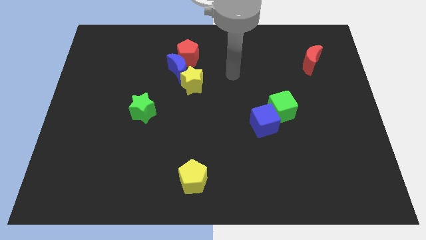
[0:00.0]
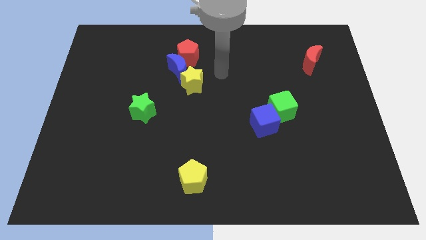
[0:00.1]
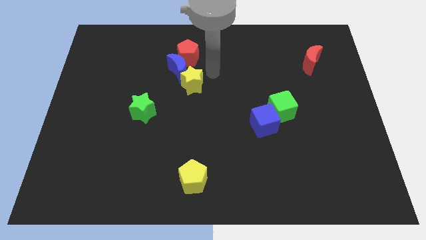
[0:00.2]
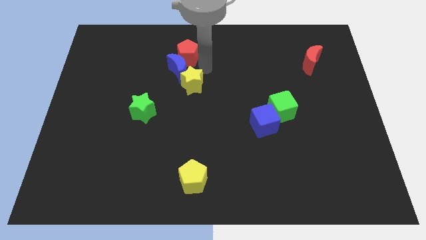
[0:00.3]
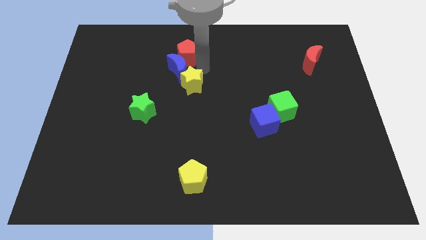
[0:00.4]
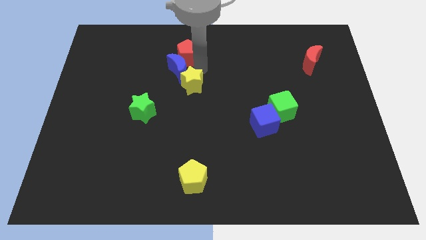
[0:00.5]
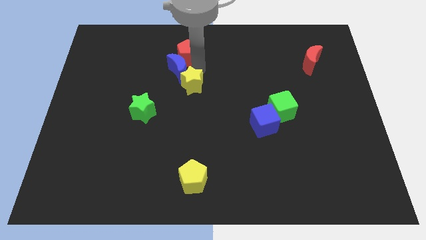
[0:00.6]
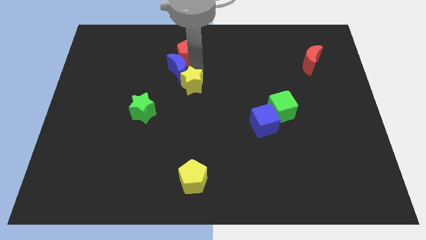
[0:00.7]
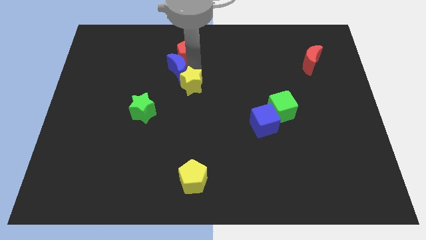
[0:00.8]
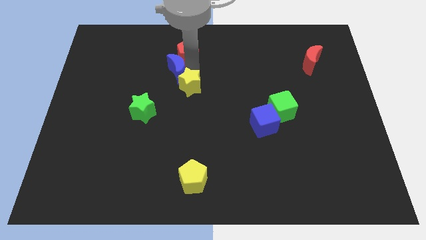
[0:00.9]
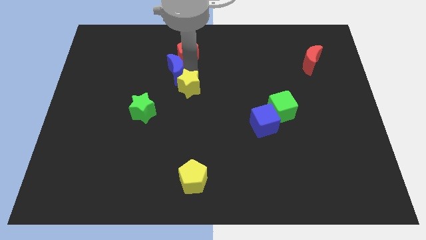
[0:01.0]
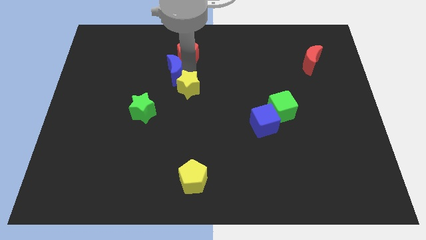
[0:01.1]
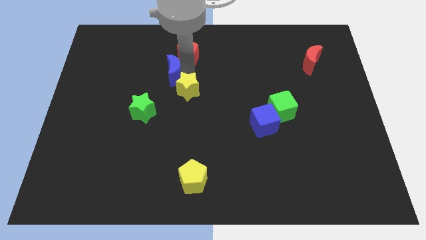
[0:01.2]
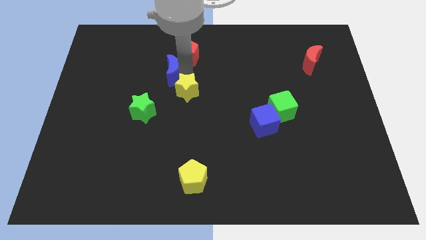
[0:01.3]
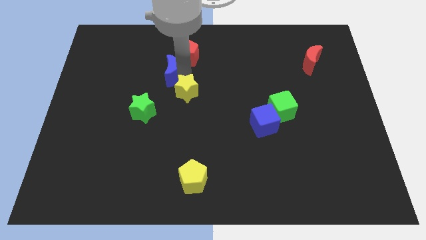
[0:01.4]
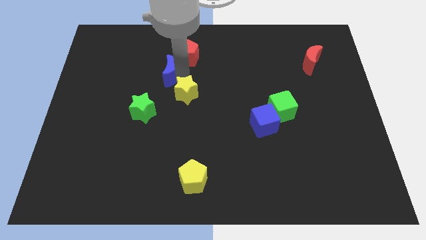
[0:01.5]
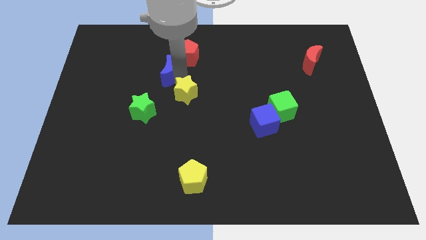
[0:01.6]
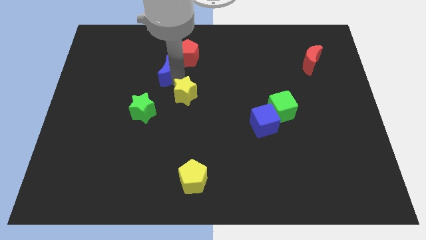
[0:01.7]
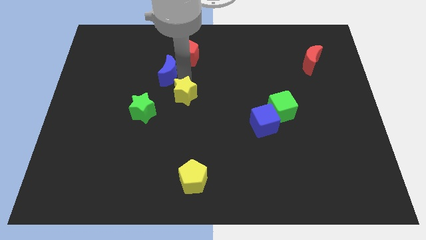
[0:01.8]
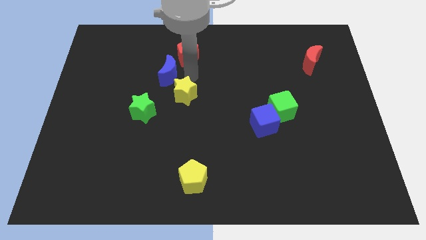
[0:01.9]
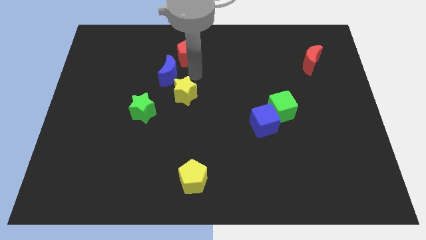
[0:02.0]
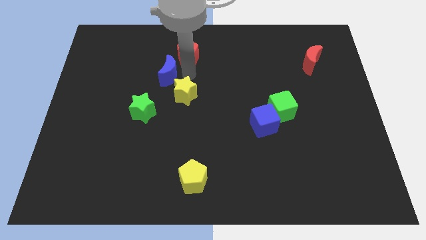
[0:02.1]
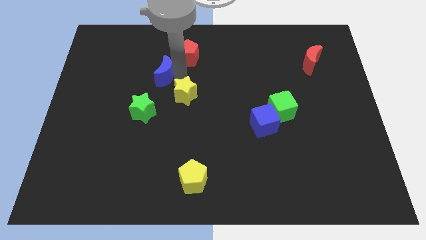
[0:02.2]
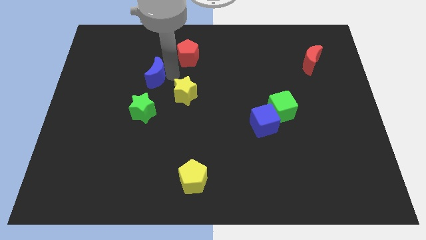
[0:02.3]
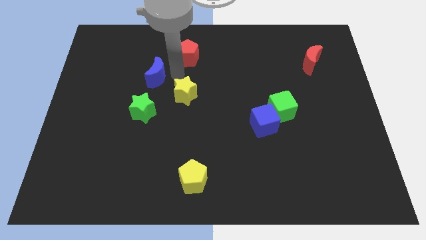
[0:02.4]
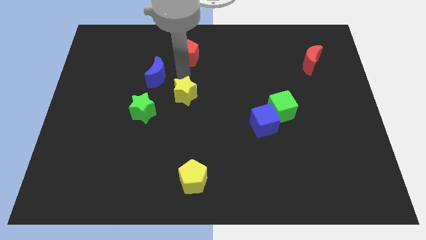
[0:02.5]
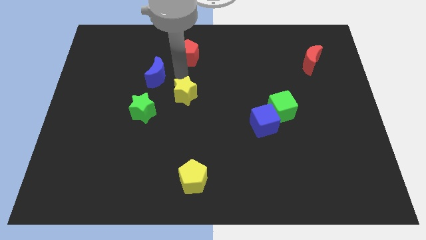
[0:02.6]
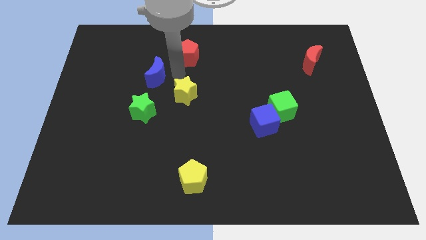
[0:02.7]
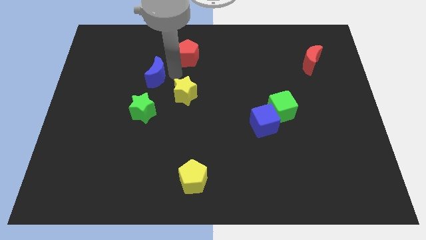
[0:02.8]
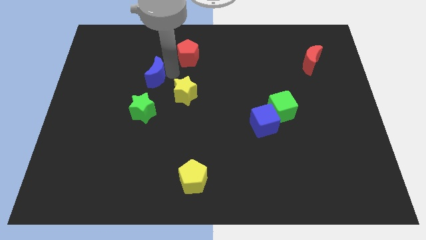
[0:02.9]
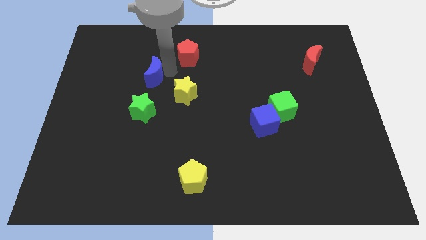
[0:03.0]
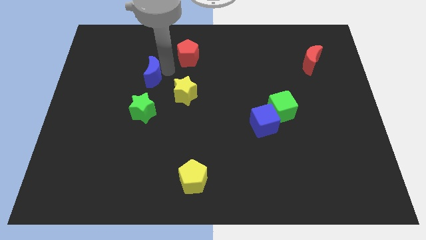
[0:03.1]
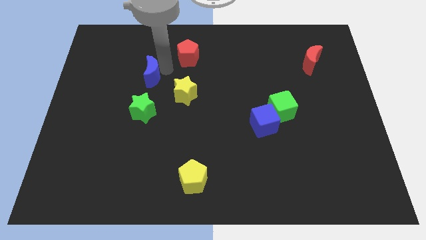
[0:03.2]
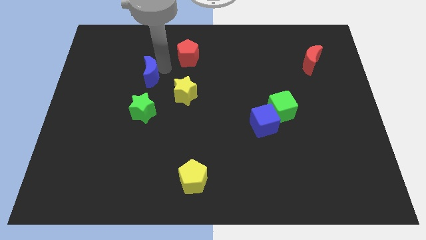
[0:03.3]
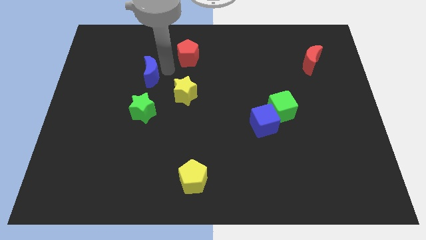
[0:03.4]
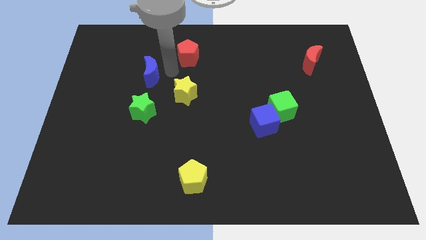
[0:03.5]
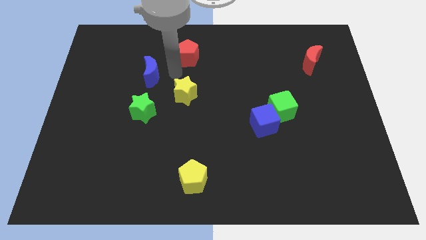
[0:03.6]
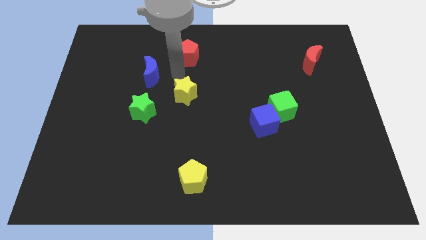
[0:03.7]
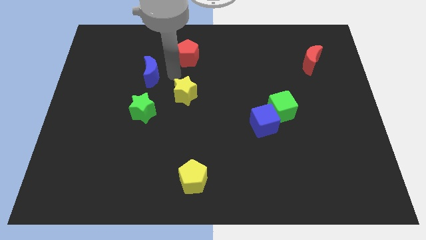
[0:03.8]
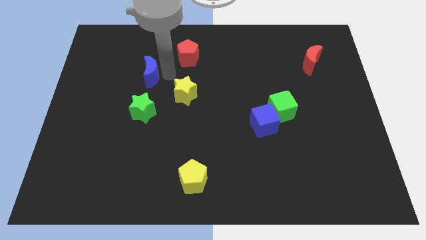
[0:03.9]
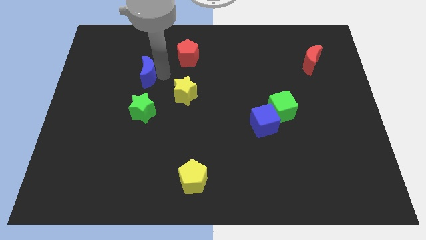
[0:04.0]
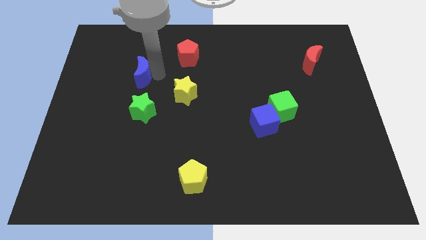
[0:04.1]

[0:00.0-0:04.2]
separate the blue moon from the red pentagon and yellow star

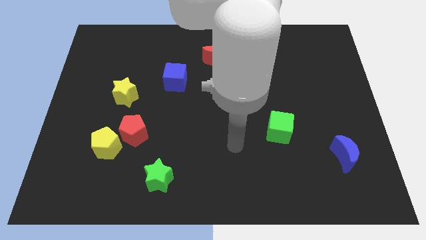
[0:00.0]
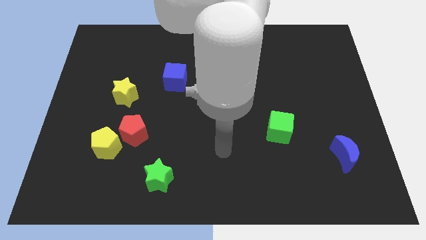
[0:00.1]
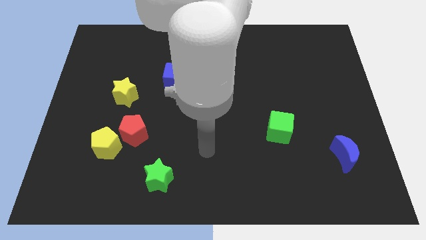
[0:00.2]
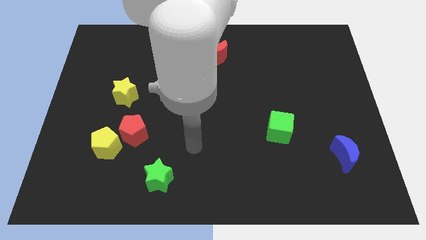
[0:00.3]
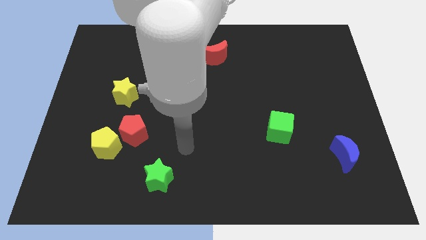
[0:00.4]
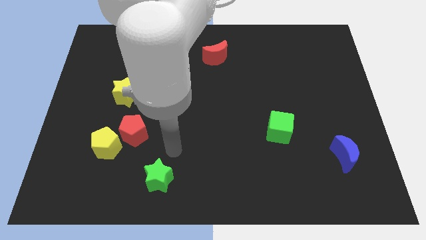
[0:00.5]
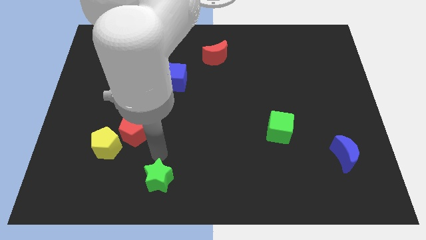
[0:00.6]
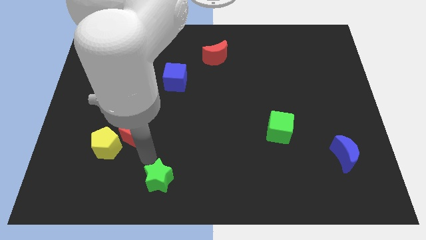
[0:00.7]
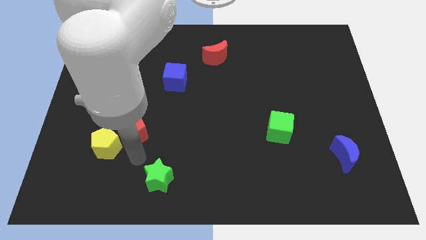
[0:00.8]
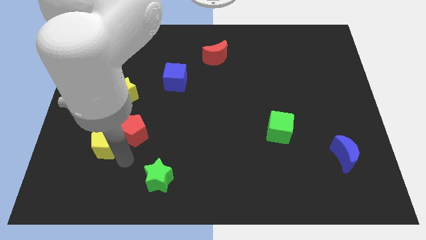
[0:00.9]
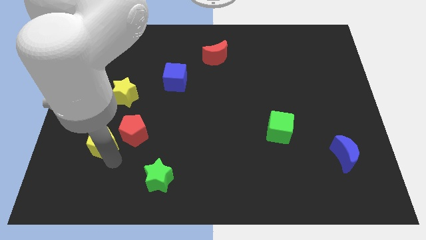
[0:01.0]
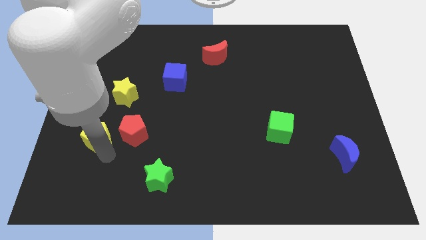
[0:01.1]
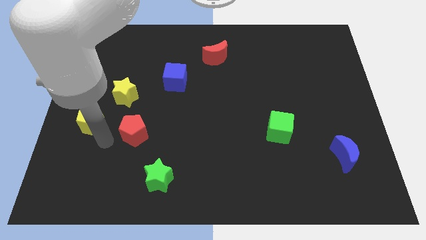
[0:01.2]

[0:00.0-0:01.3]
pull the red pentagon apart from the yellow pentagon

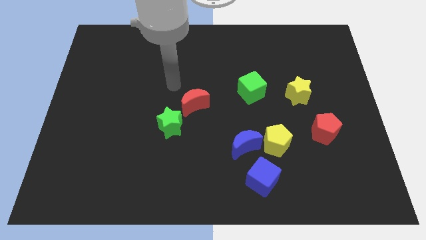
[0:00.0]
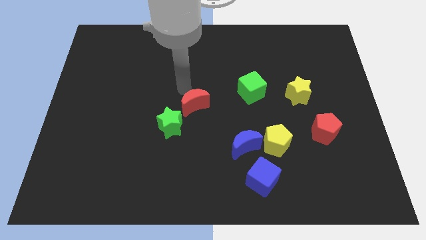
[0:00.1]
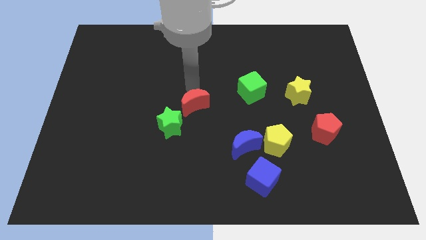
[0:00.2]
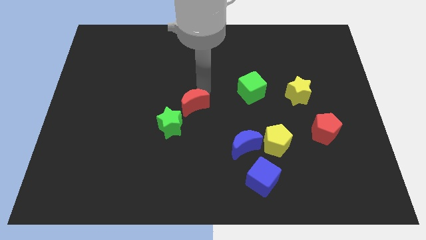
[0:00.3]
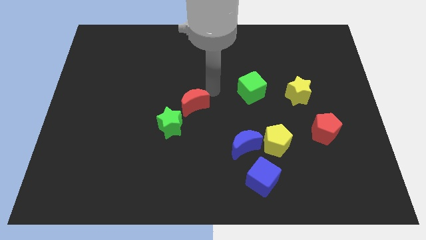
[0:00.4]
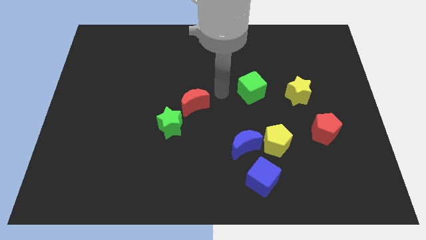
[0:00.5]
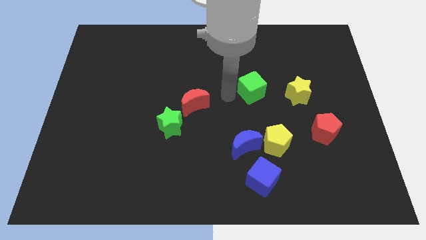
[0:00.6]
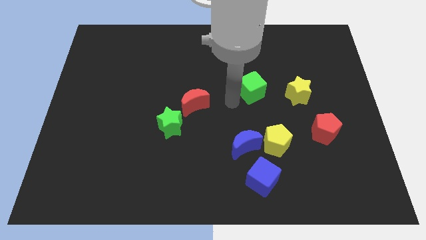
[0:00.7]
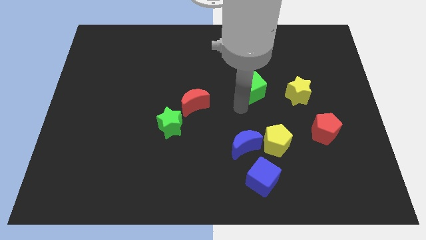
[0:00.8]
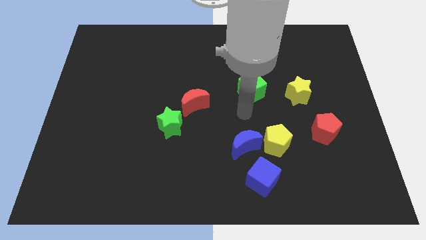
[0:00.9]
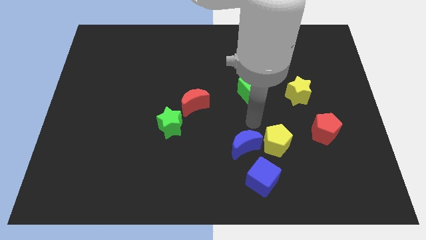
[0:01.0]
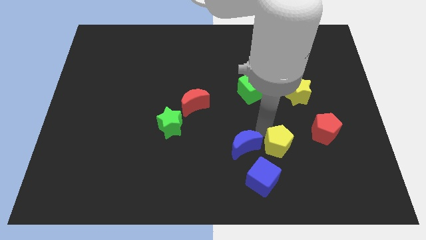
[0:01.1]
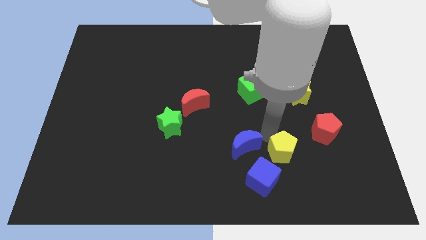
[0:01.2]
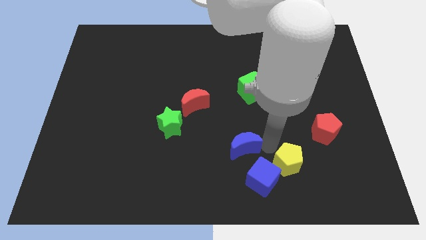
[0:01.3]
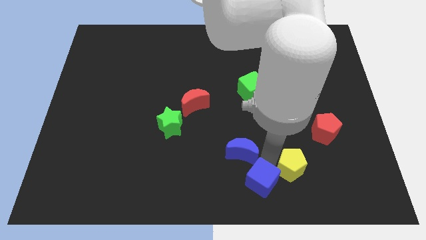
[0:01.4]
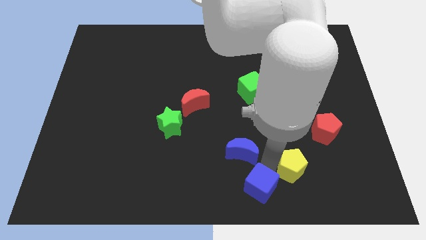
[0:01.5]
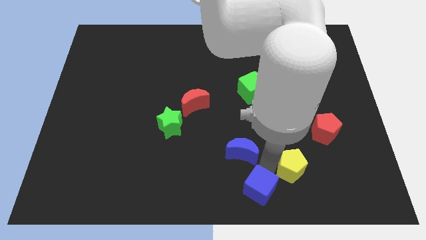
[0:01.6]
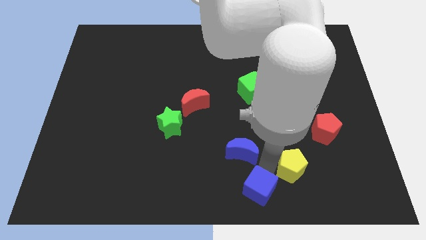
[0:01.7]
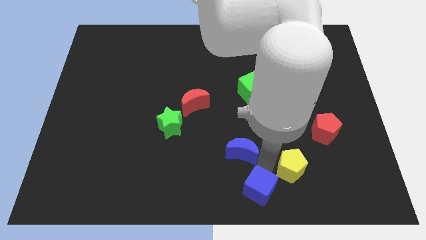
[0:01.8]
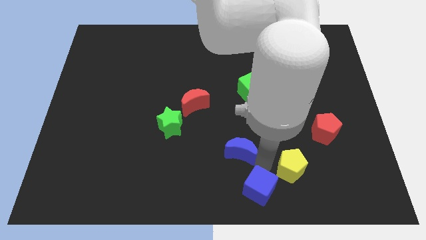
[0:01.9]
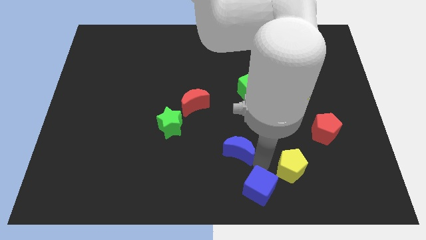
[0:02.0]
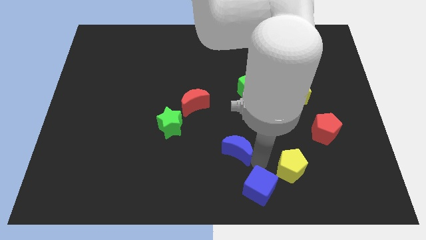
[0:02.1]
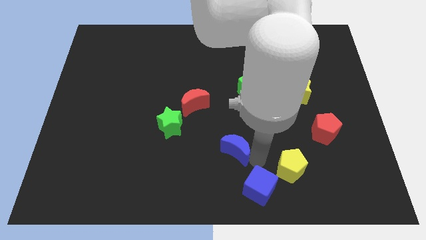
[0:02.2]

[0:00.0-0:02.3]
separate the blue moon from the yellow pentagon and blue cube

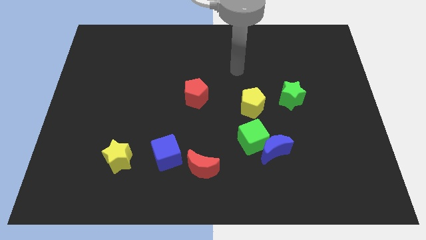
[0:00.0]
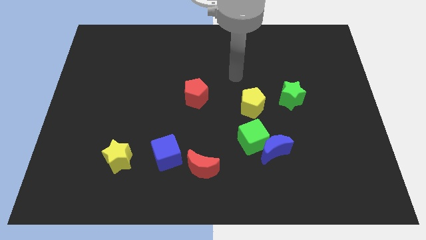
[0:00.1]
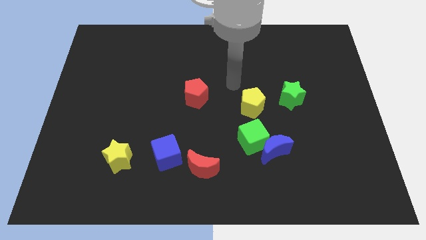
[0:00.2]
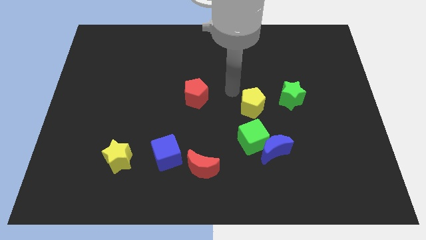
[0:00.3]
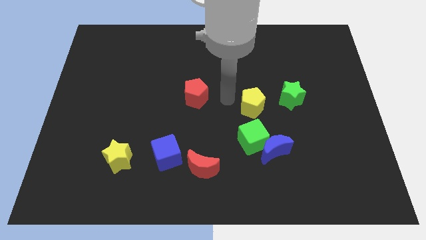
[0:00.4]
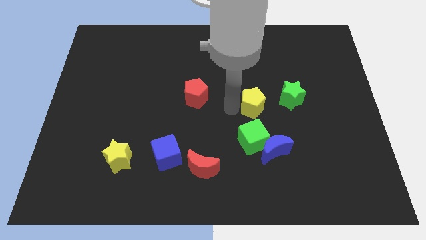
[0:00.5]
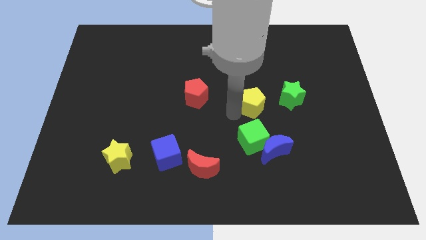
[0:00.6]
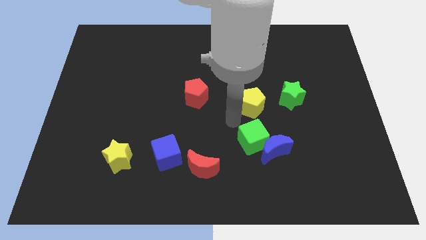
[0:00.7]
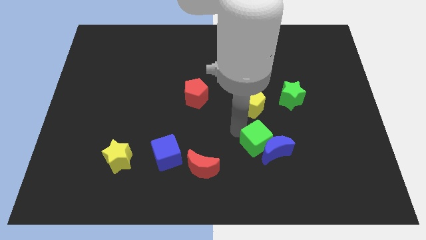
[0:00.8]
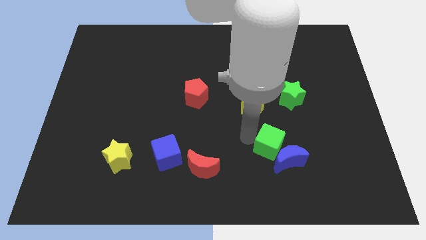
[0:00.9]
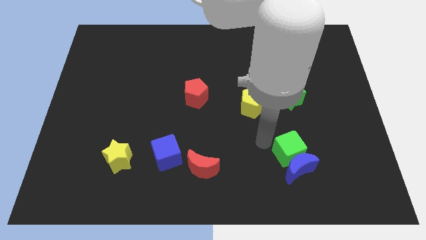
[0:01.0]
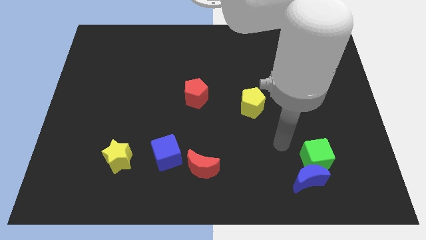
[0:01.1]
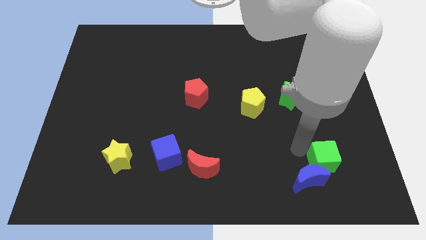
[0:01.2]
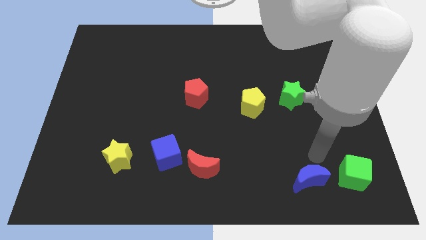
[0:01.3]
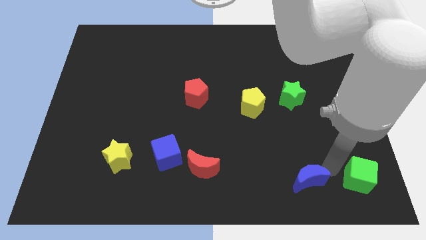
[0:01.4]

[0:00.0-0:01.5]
move the blue moon away from the green cube
